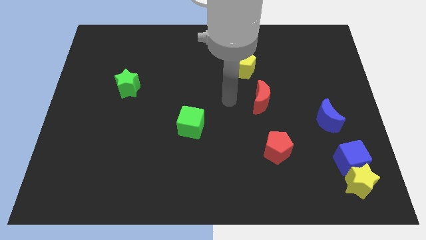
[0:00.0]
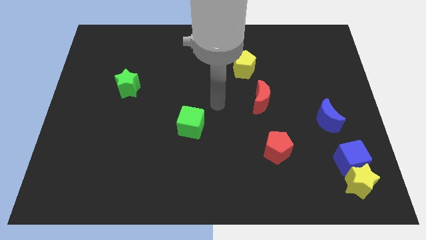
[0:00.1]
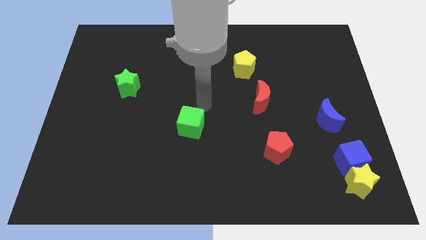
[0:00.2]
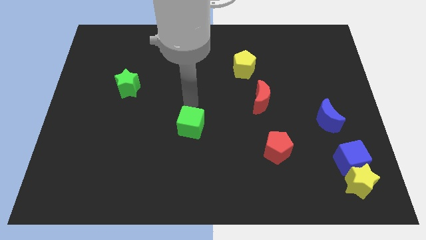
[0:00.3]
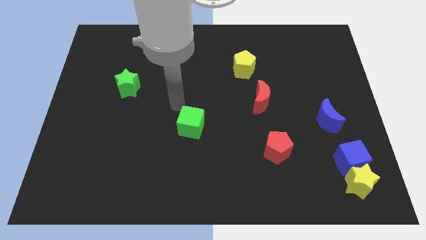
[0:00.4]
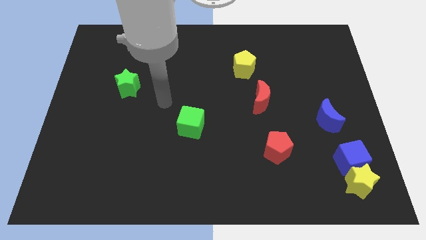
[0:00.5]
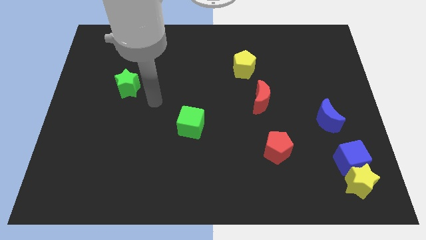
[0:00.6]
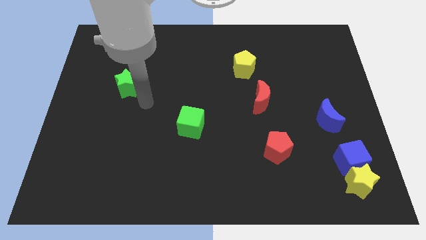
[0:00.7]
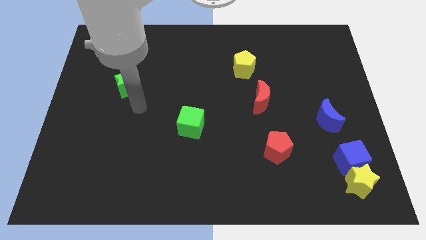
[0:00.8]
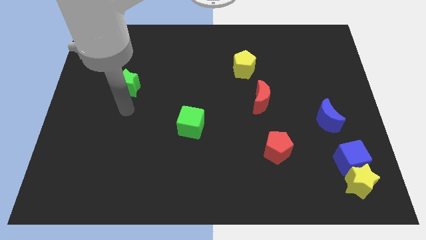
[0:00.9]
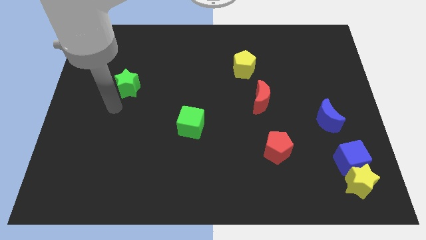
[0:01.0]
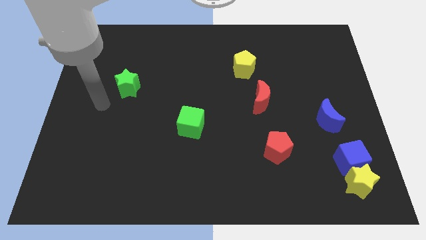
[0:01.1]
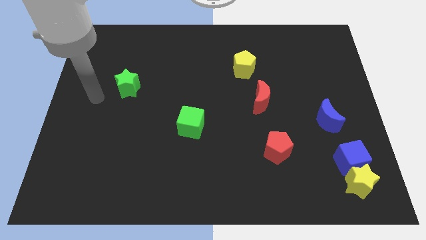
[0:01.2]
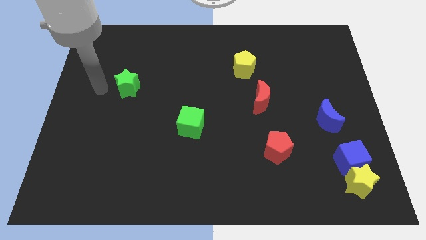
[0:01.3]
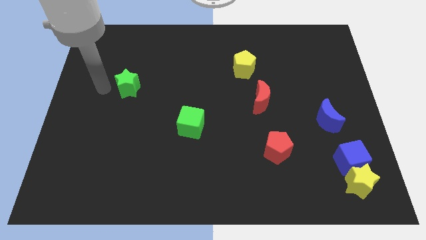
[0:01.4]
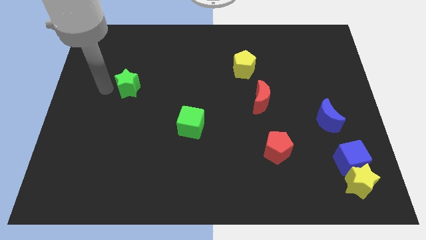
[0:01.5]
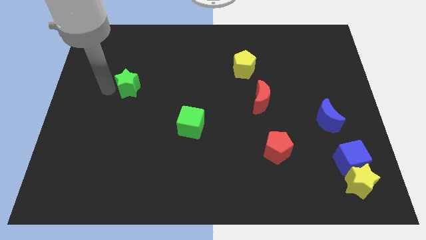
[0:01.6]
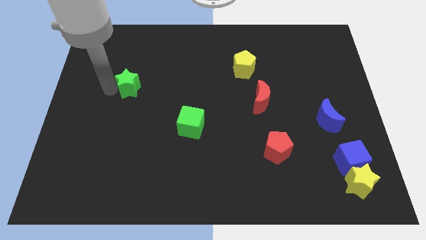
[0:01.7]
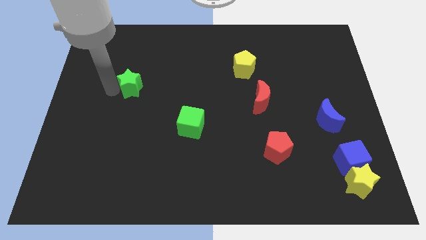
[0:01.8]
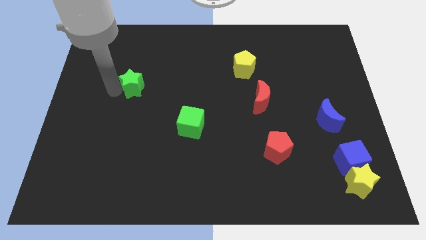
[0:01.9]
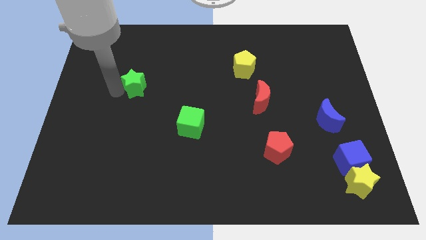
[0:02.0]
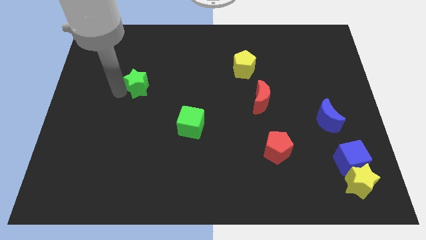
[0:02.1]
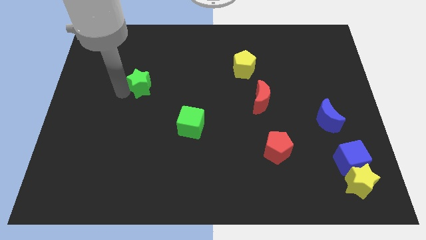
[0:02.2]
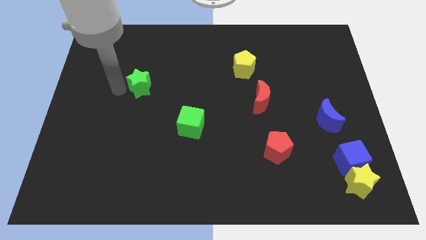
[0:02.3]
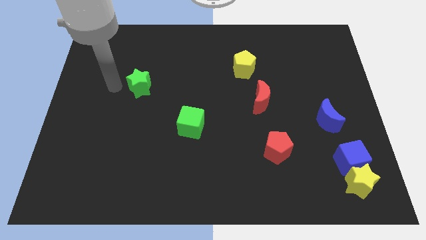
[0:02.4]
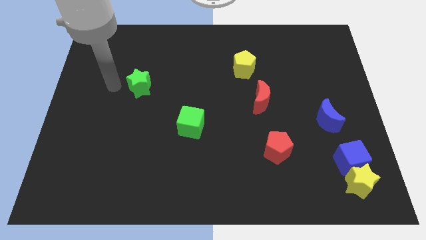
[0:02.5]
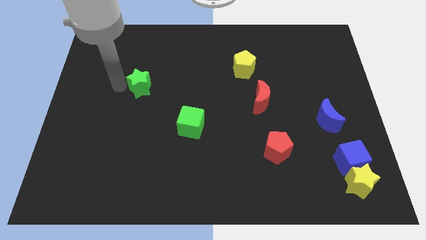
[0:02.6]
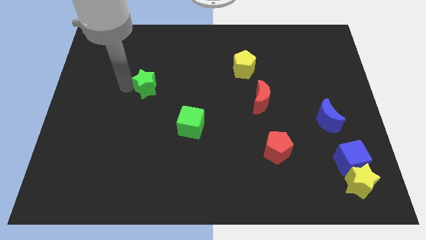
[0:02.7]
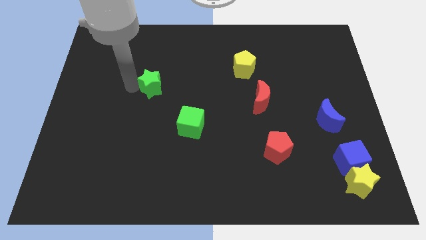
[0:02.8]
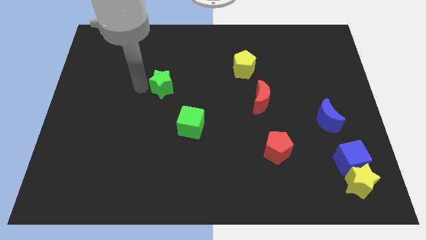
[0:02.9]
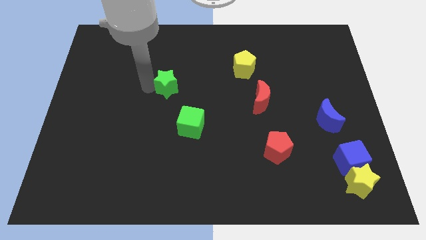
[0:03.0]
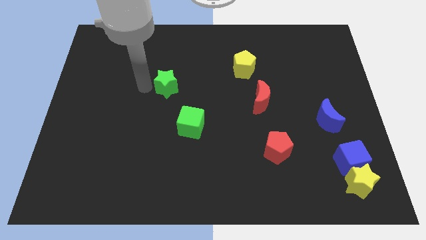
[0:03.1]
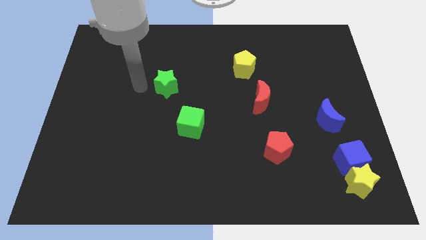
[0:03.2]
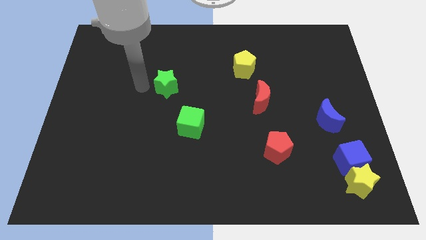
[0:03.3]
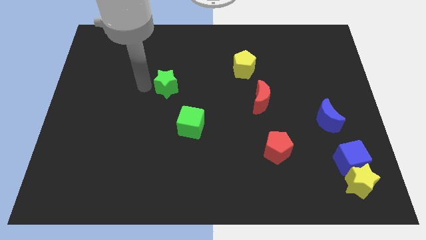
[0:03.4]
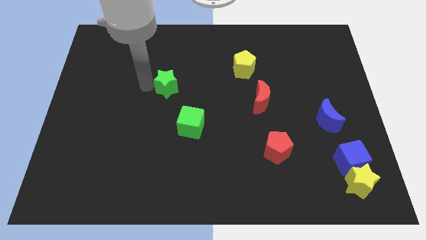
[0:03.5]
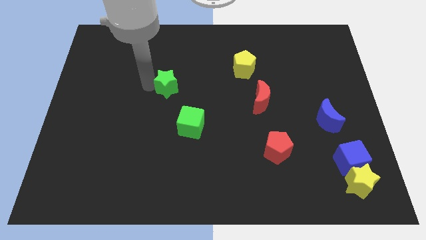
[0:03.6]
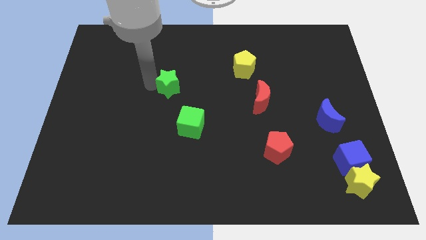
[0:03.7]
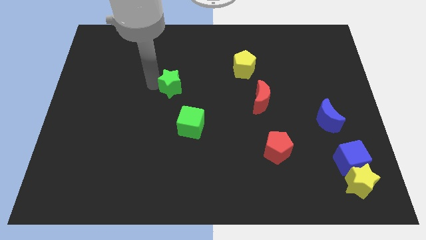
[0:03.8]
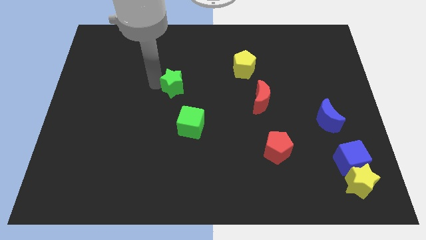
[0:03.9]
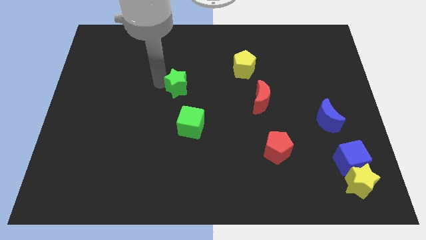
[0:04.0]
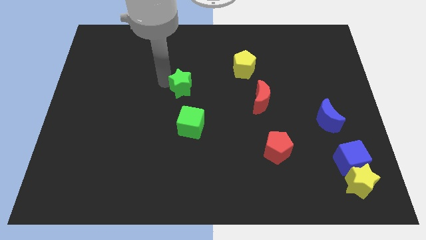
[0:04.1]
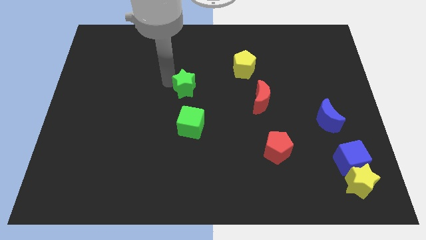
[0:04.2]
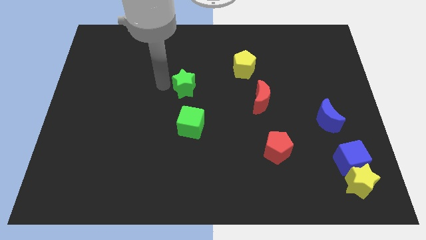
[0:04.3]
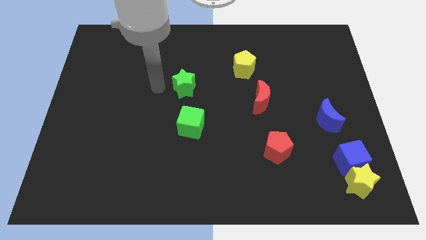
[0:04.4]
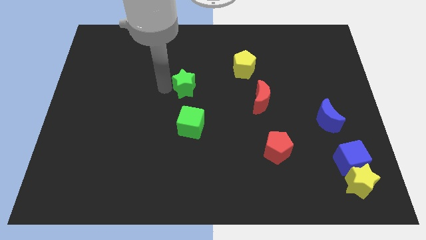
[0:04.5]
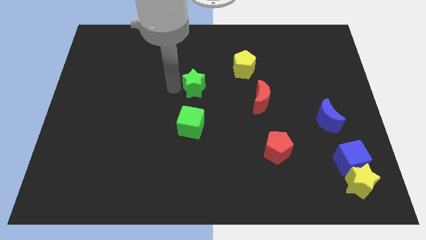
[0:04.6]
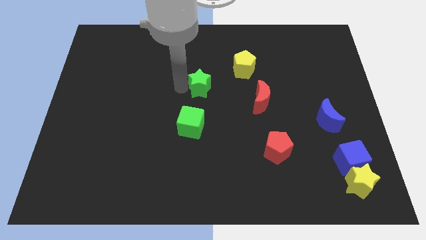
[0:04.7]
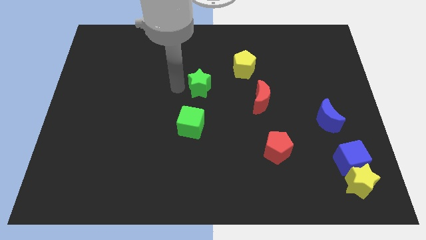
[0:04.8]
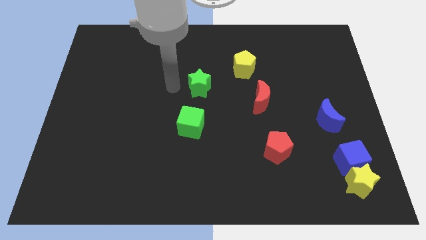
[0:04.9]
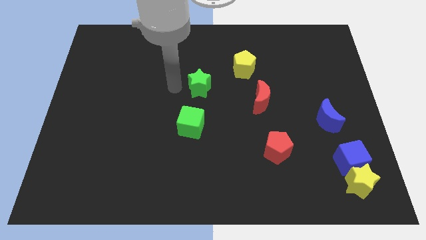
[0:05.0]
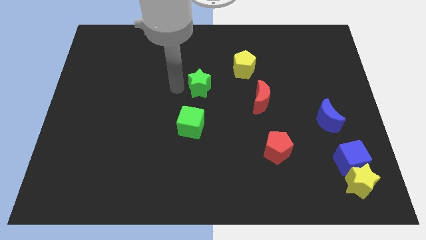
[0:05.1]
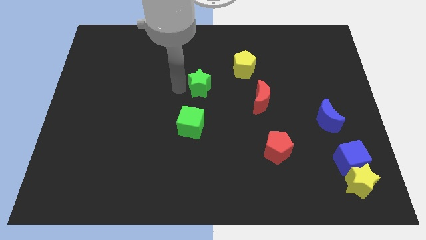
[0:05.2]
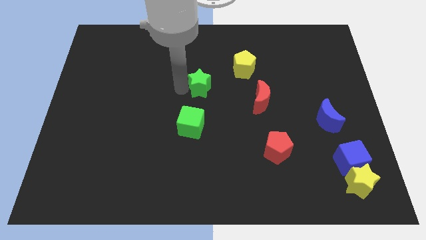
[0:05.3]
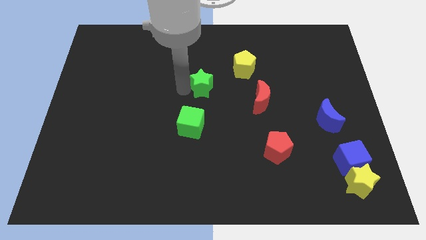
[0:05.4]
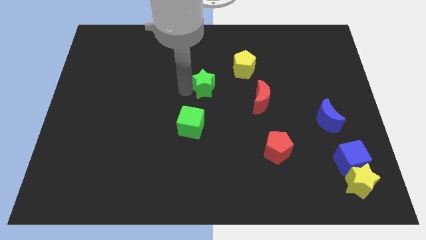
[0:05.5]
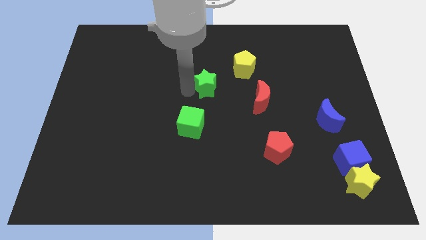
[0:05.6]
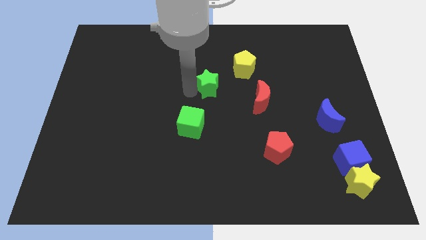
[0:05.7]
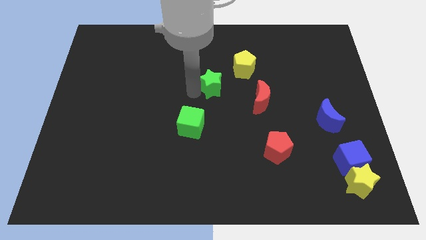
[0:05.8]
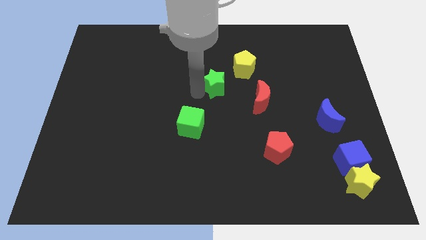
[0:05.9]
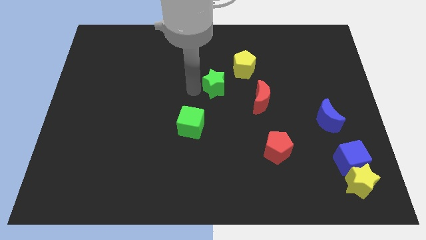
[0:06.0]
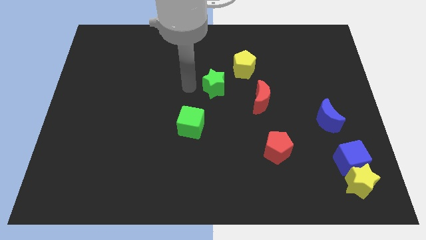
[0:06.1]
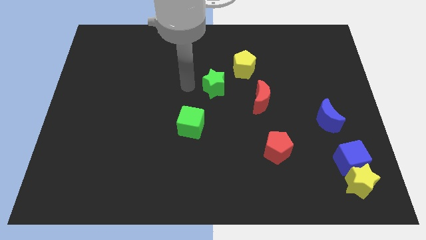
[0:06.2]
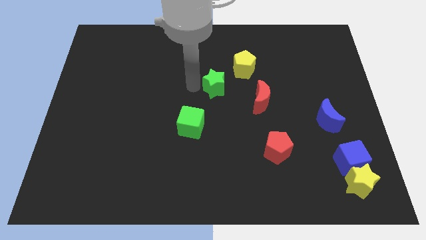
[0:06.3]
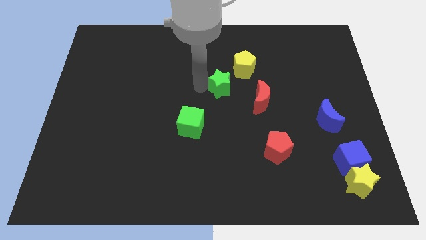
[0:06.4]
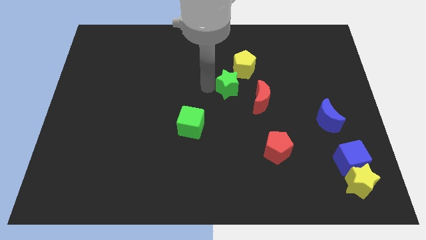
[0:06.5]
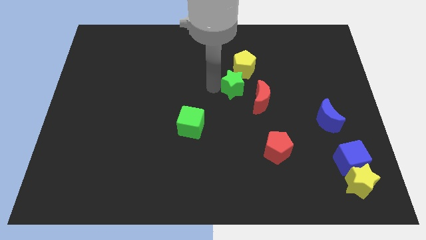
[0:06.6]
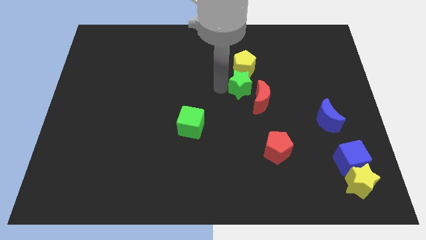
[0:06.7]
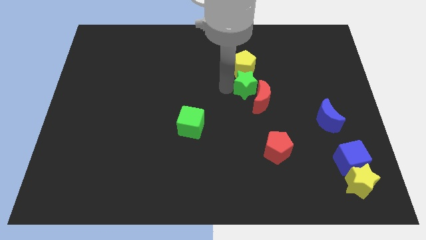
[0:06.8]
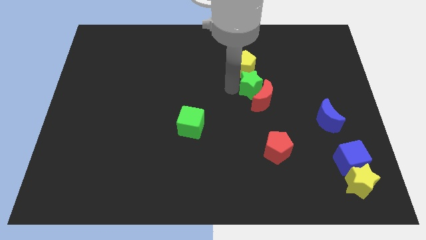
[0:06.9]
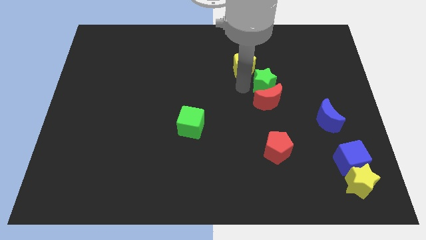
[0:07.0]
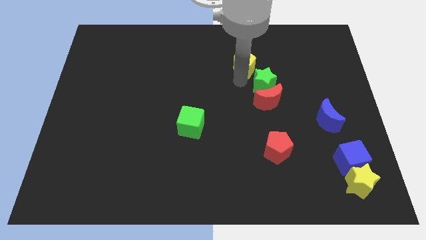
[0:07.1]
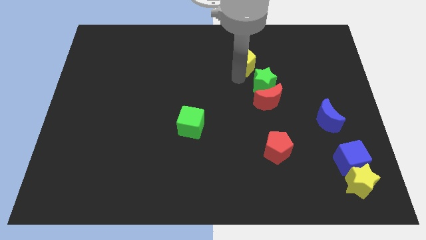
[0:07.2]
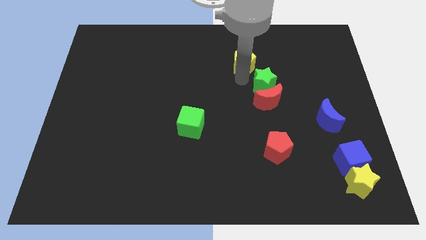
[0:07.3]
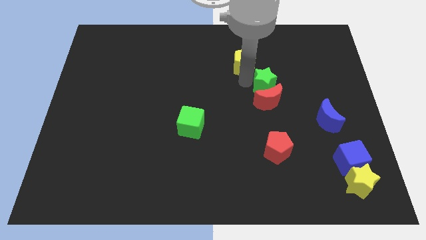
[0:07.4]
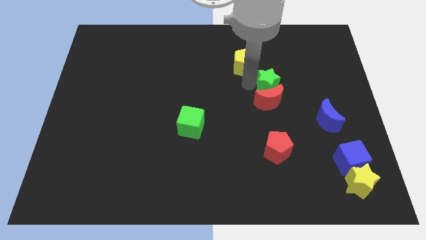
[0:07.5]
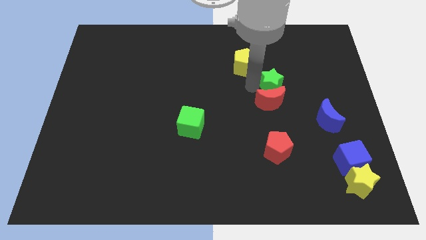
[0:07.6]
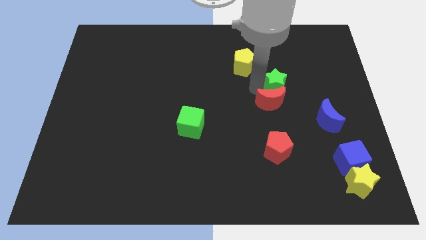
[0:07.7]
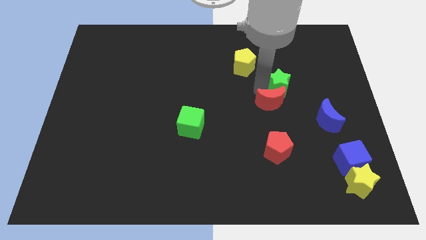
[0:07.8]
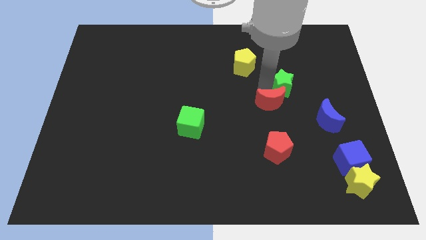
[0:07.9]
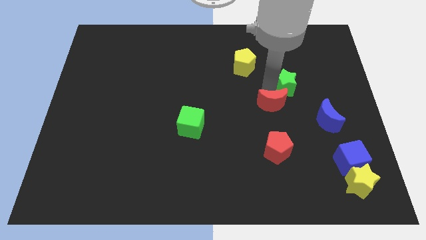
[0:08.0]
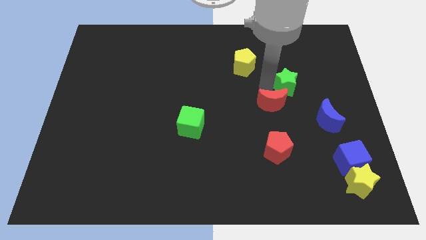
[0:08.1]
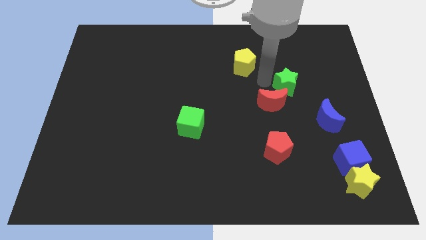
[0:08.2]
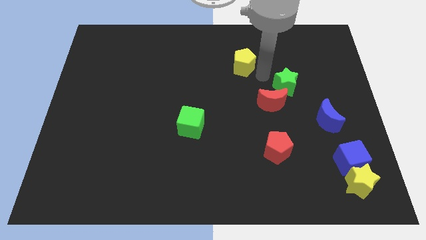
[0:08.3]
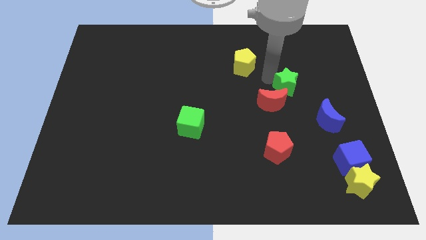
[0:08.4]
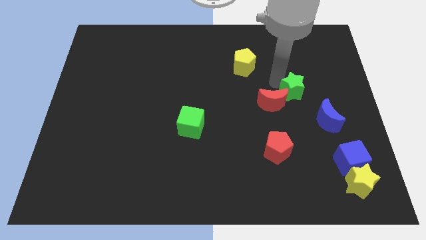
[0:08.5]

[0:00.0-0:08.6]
slide the green star to the right side of the red moon
